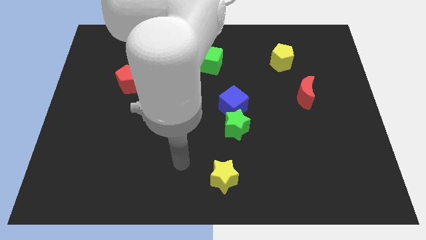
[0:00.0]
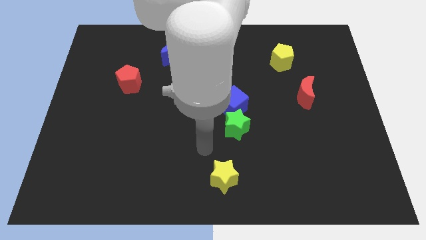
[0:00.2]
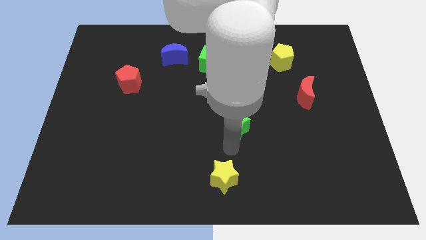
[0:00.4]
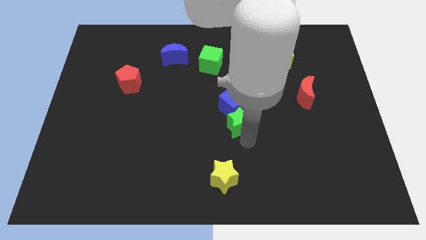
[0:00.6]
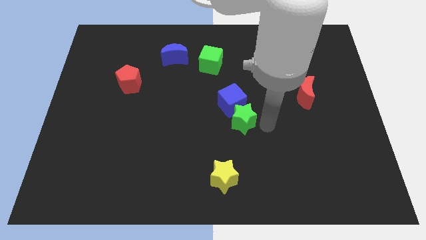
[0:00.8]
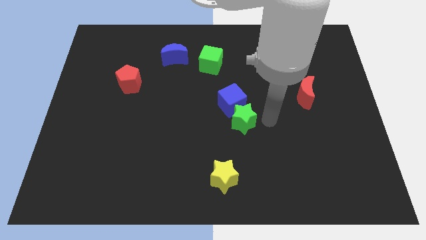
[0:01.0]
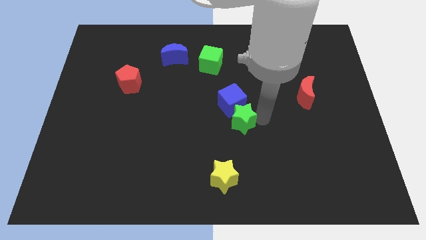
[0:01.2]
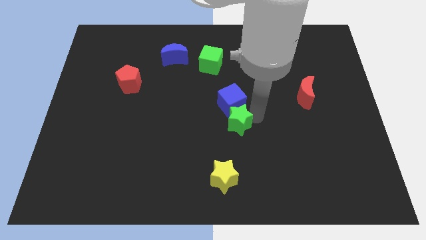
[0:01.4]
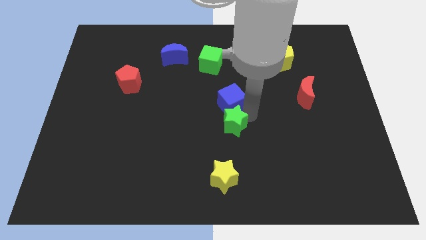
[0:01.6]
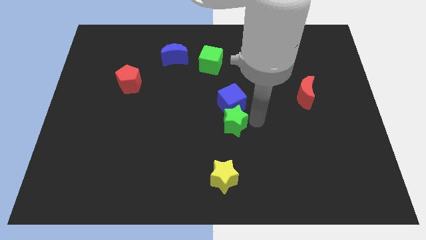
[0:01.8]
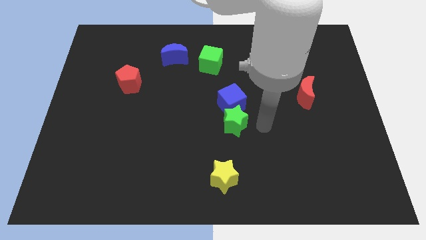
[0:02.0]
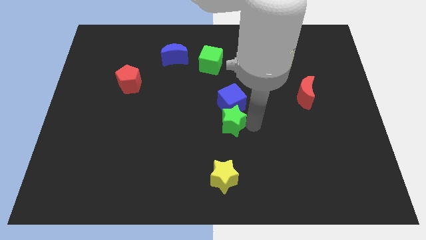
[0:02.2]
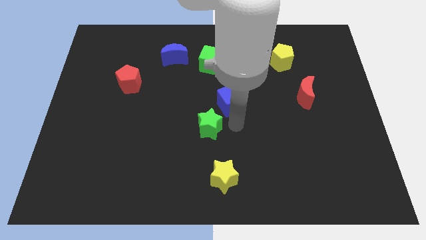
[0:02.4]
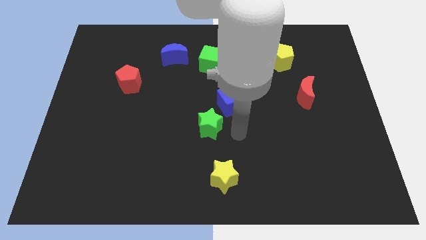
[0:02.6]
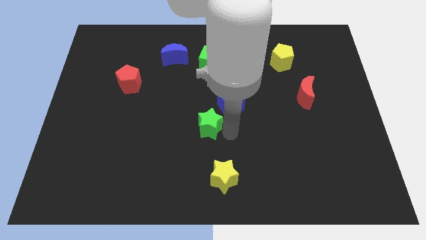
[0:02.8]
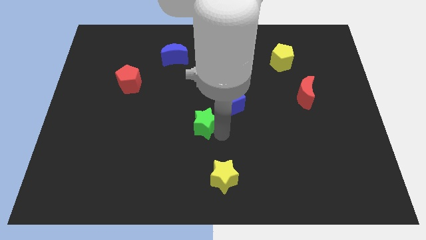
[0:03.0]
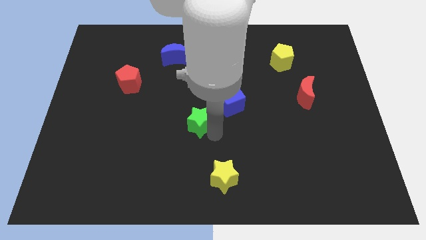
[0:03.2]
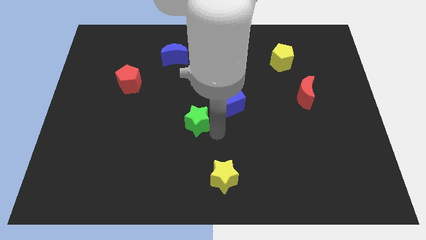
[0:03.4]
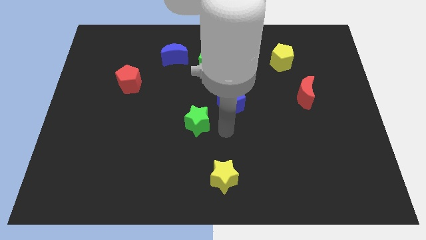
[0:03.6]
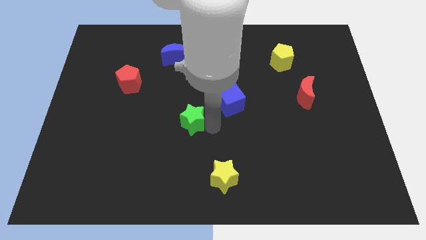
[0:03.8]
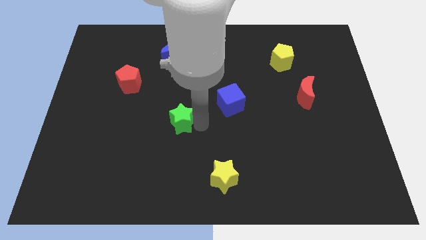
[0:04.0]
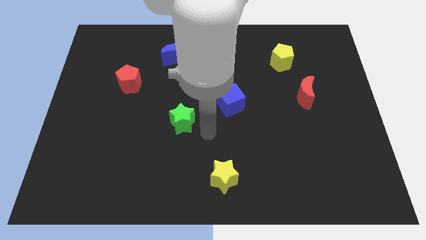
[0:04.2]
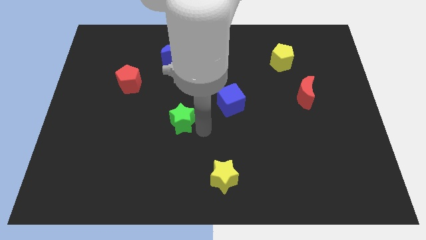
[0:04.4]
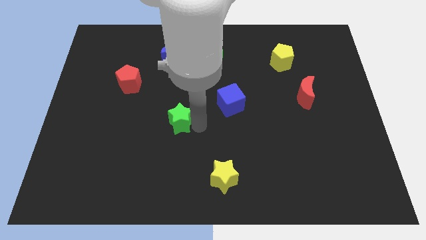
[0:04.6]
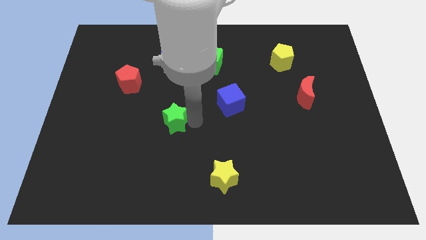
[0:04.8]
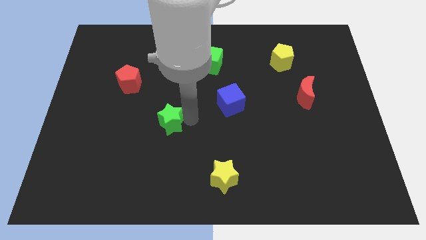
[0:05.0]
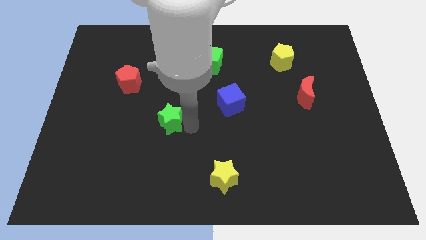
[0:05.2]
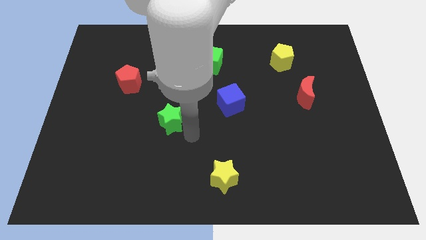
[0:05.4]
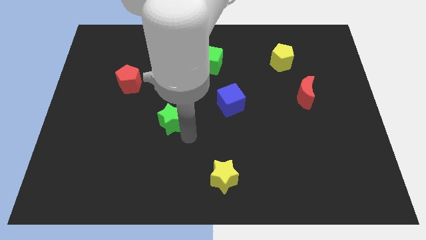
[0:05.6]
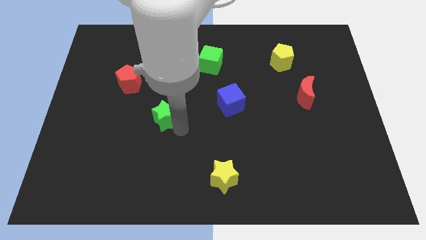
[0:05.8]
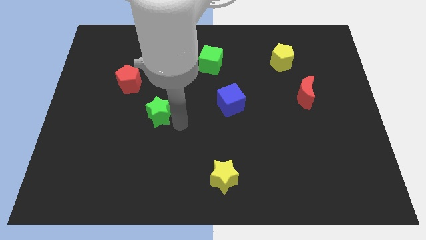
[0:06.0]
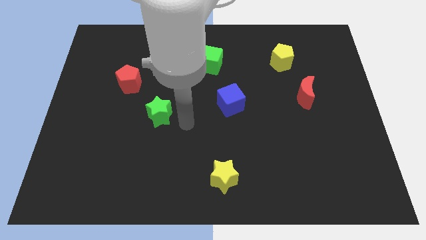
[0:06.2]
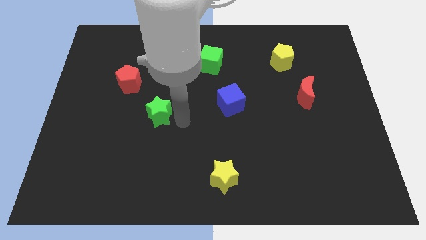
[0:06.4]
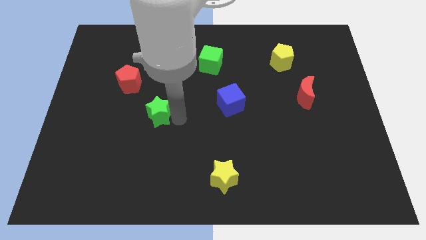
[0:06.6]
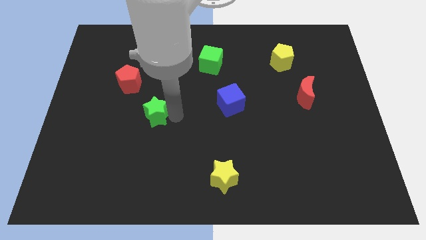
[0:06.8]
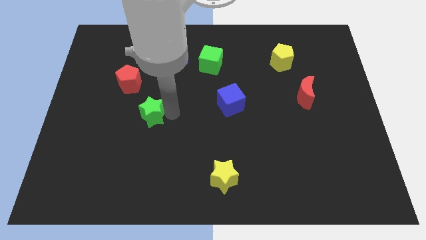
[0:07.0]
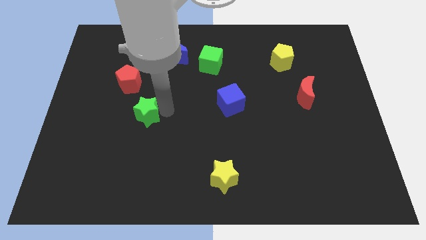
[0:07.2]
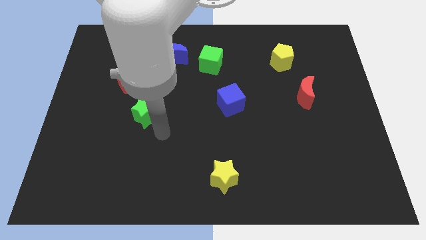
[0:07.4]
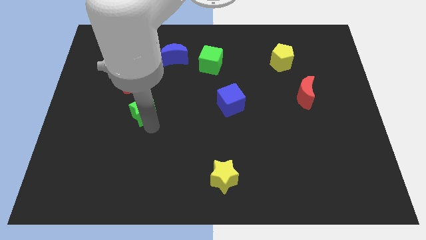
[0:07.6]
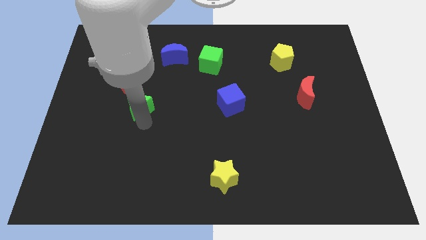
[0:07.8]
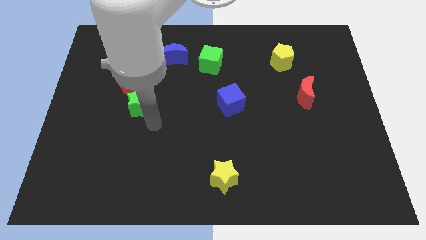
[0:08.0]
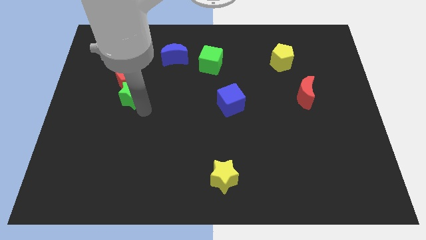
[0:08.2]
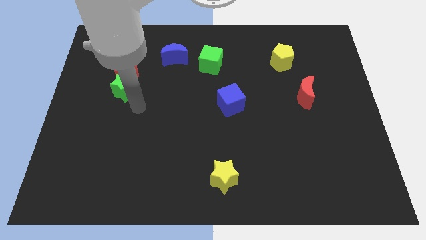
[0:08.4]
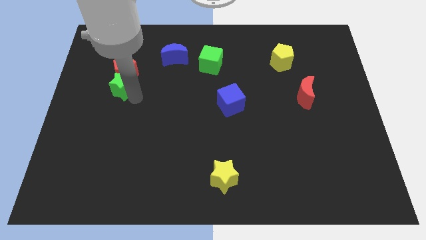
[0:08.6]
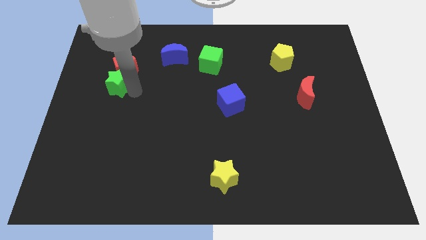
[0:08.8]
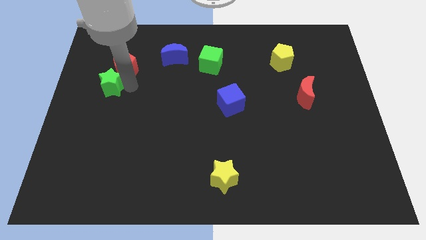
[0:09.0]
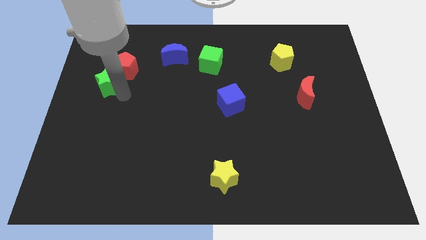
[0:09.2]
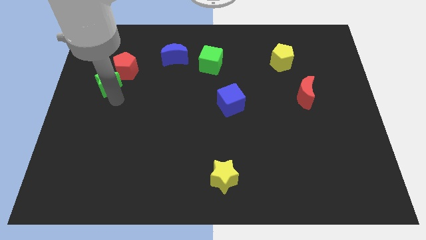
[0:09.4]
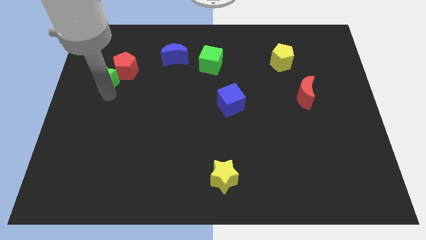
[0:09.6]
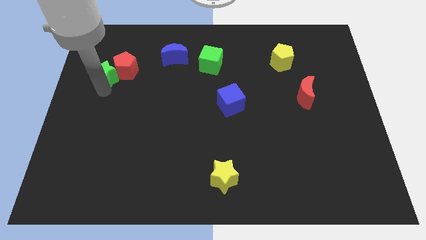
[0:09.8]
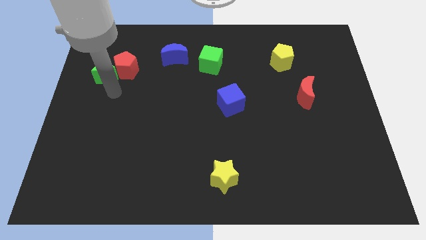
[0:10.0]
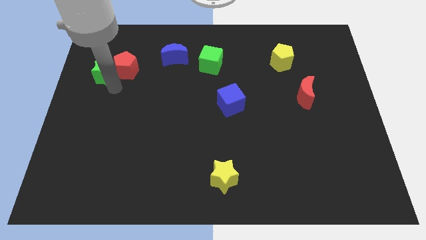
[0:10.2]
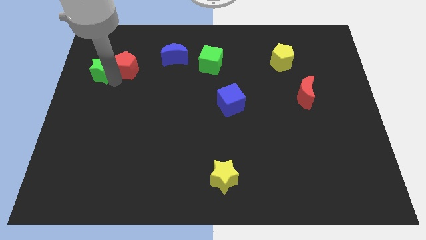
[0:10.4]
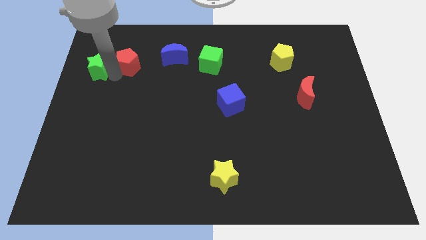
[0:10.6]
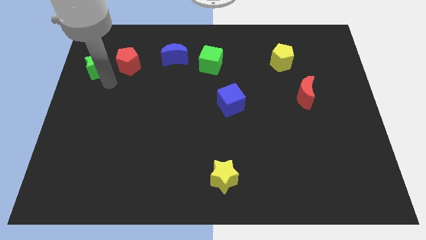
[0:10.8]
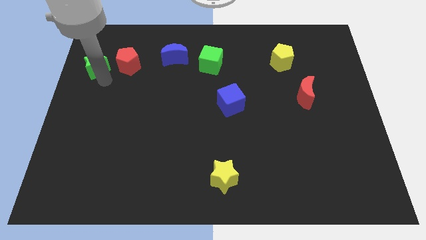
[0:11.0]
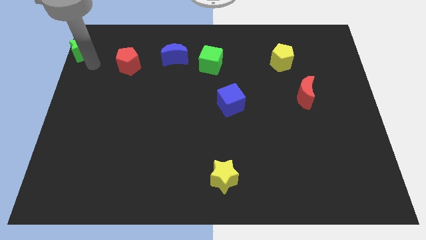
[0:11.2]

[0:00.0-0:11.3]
push the green star to the upper left corner

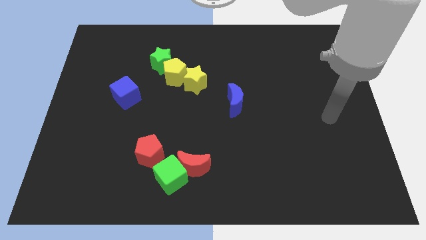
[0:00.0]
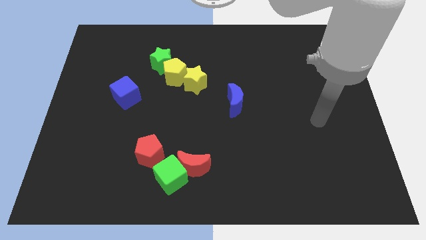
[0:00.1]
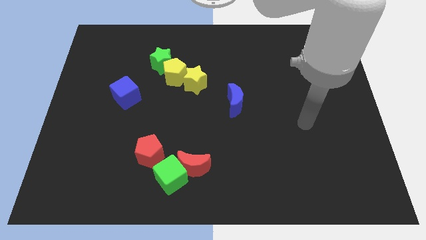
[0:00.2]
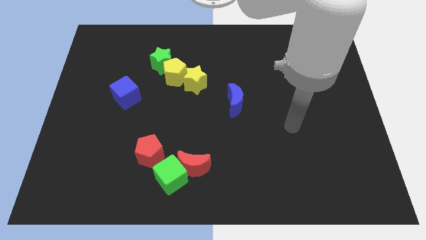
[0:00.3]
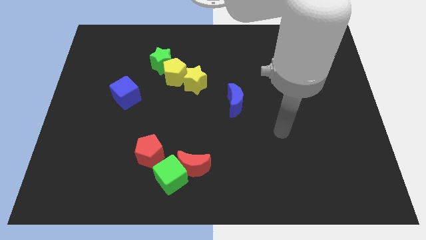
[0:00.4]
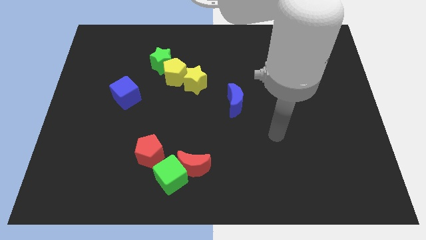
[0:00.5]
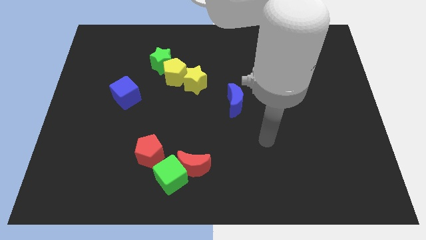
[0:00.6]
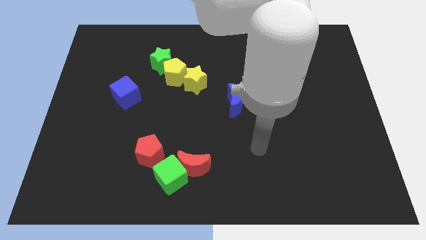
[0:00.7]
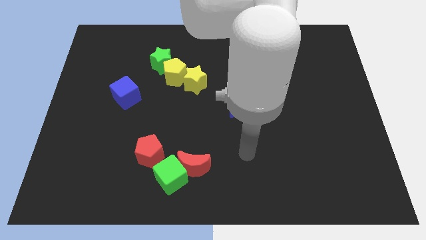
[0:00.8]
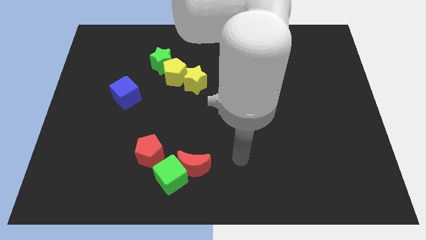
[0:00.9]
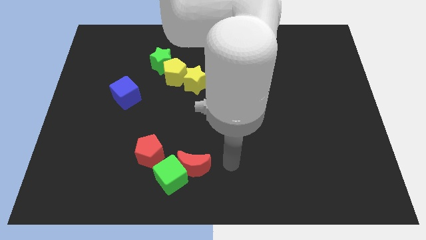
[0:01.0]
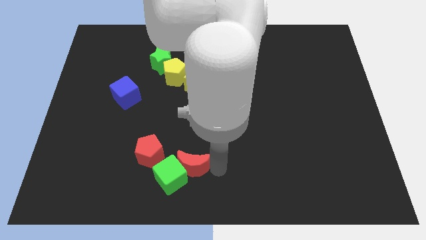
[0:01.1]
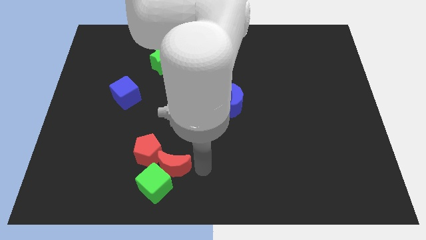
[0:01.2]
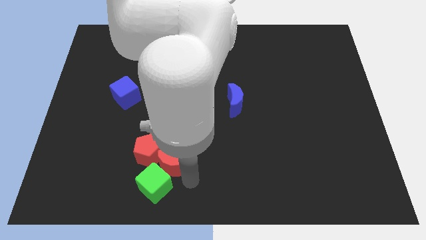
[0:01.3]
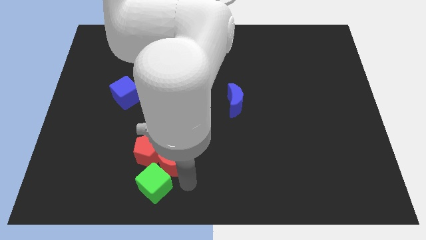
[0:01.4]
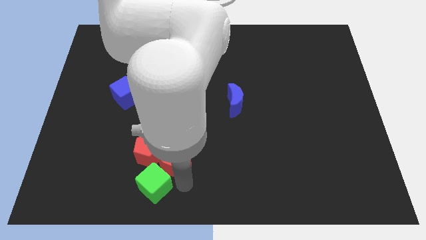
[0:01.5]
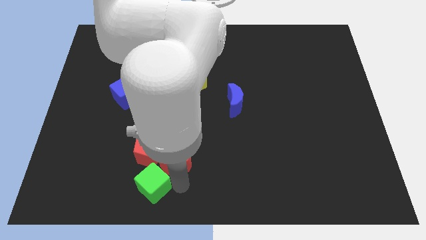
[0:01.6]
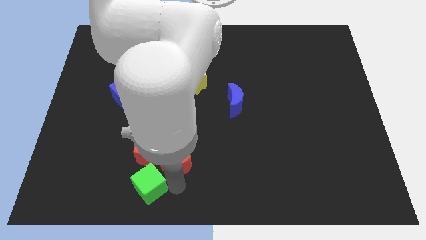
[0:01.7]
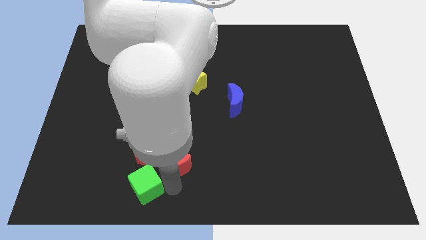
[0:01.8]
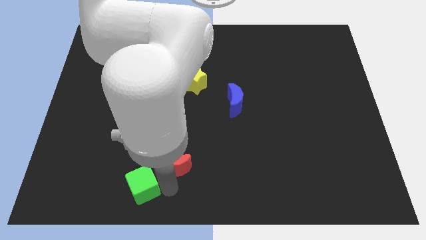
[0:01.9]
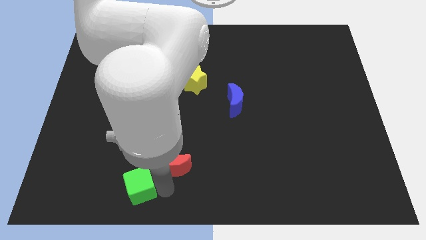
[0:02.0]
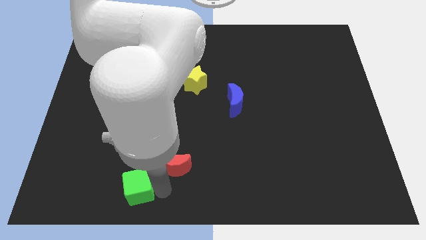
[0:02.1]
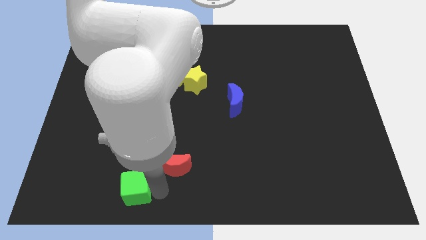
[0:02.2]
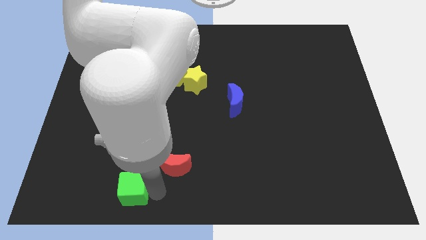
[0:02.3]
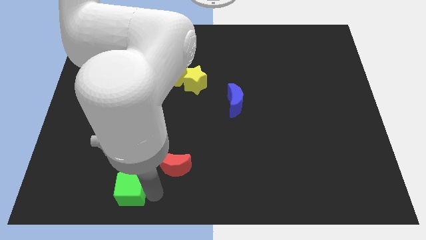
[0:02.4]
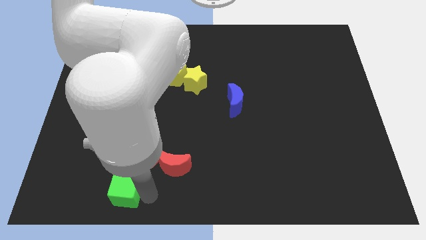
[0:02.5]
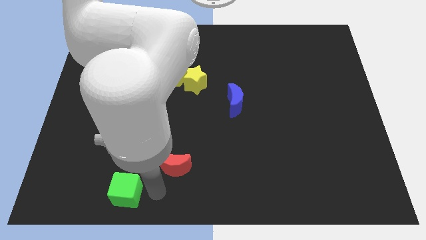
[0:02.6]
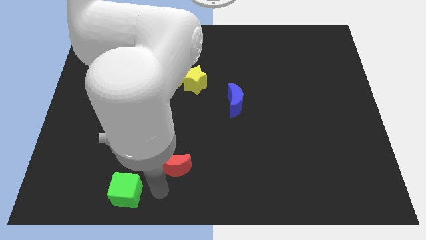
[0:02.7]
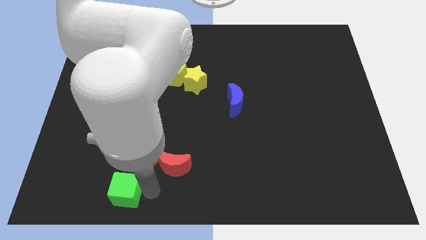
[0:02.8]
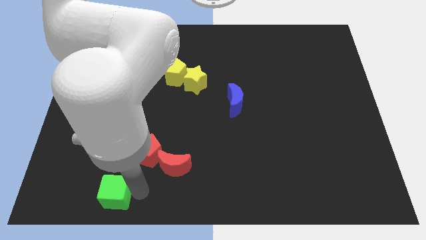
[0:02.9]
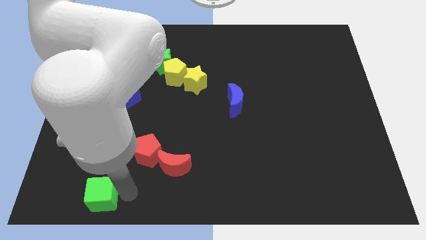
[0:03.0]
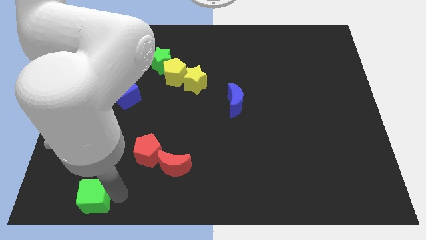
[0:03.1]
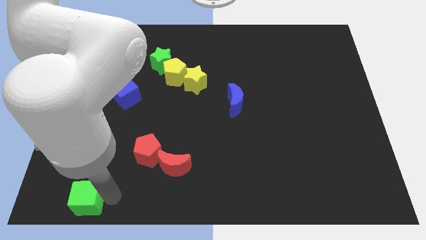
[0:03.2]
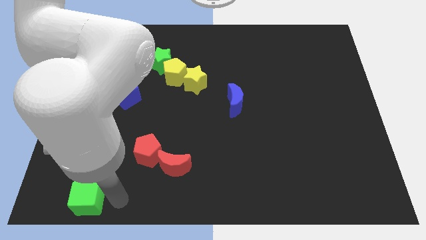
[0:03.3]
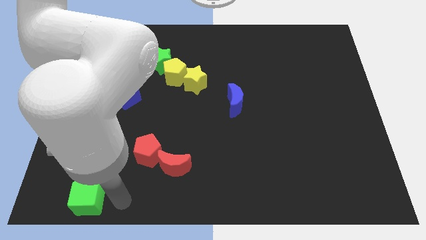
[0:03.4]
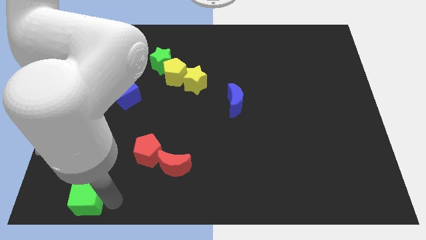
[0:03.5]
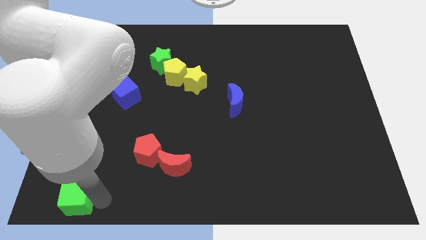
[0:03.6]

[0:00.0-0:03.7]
put the green cube to the bottom left
